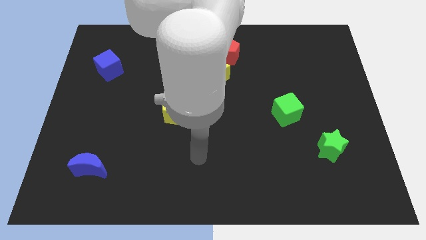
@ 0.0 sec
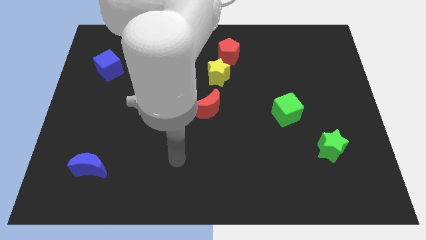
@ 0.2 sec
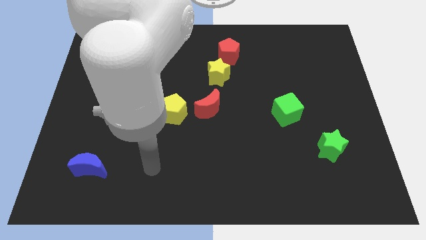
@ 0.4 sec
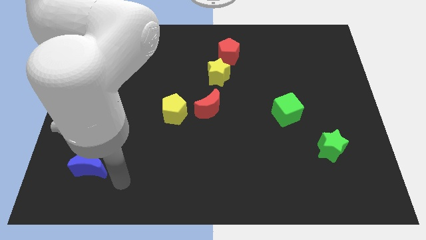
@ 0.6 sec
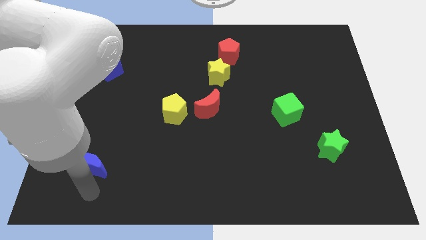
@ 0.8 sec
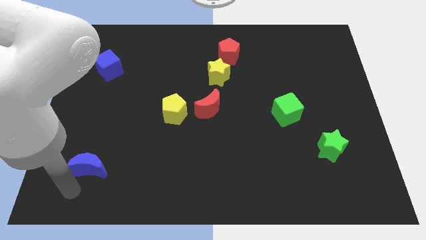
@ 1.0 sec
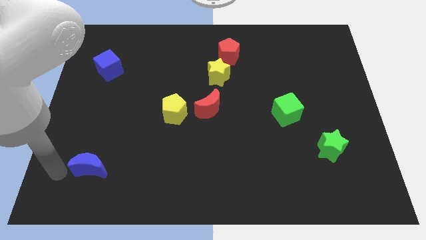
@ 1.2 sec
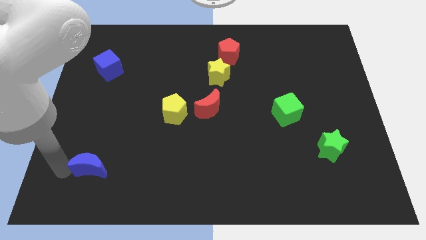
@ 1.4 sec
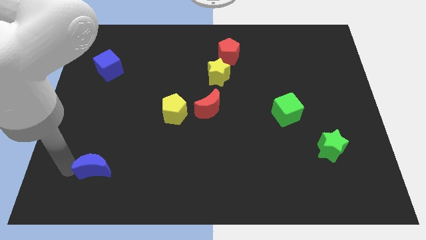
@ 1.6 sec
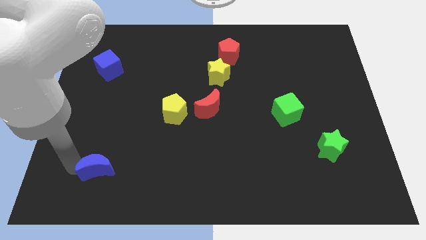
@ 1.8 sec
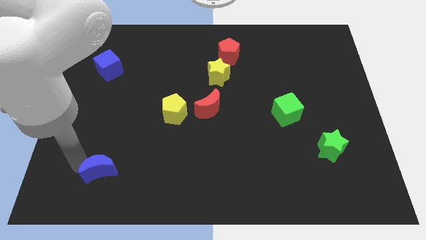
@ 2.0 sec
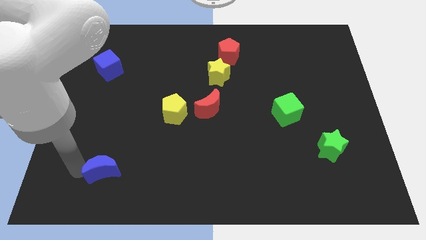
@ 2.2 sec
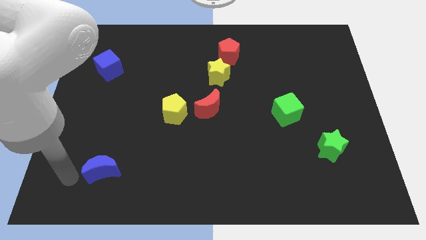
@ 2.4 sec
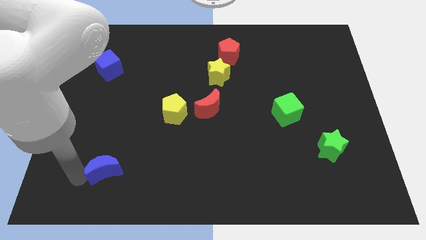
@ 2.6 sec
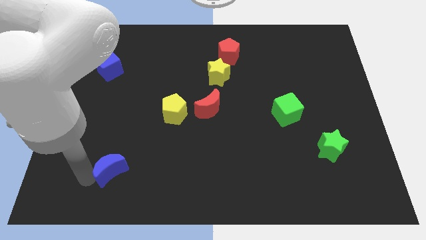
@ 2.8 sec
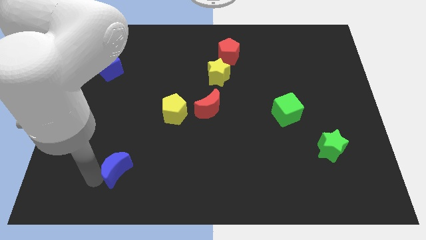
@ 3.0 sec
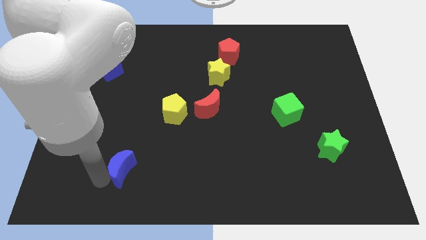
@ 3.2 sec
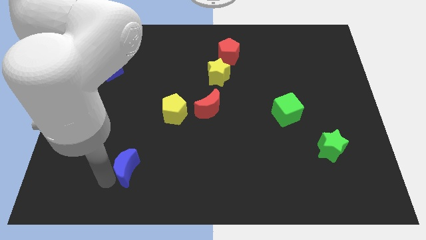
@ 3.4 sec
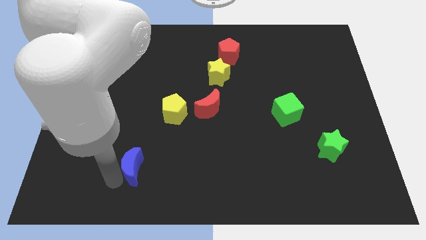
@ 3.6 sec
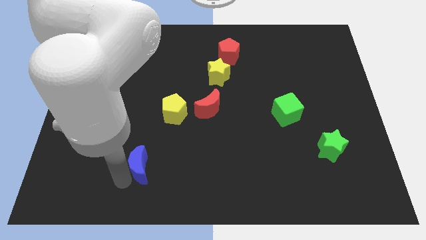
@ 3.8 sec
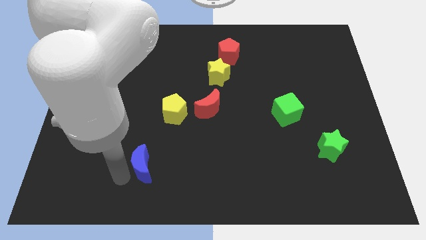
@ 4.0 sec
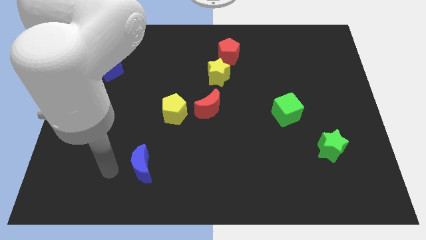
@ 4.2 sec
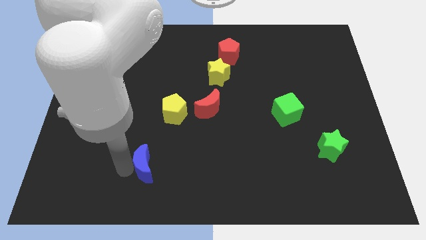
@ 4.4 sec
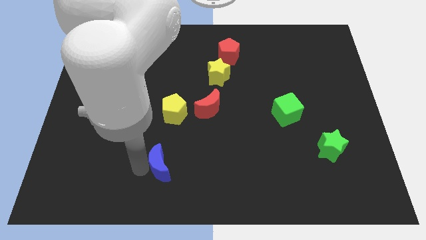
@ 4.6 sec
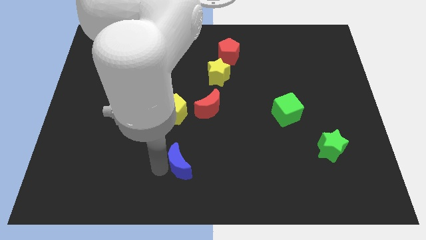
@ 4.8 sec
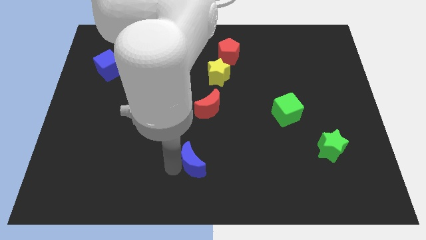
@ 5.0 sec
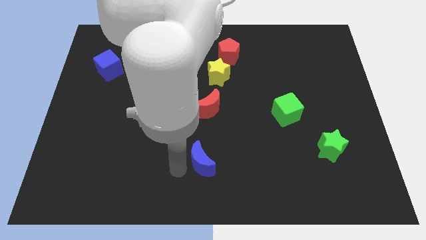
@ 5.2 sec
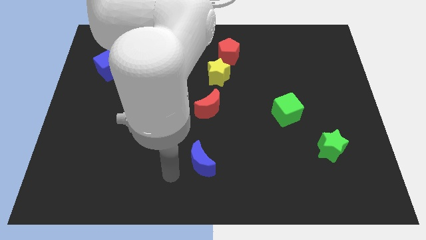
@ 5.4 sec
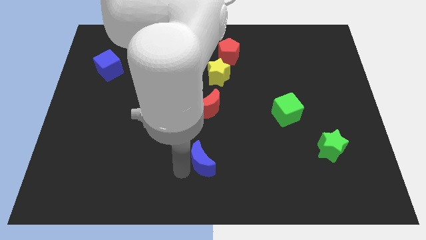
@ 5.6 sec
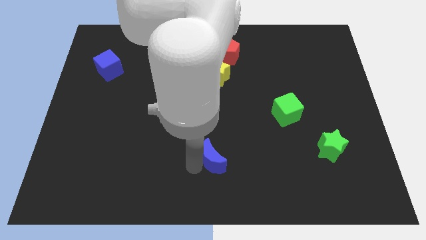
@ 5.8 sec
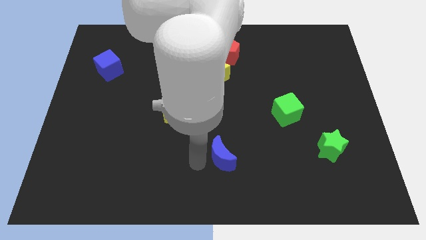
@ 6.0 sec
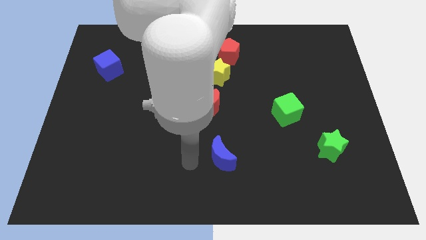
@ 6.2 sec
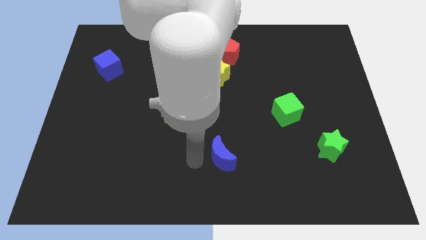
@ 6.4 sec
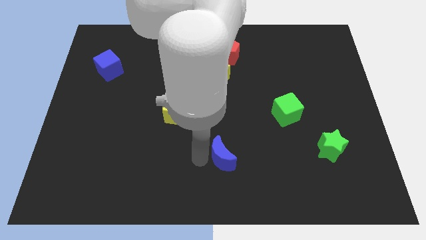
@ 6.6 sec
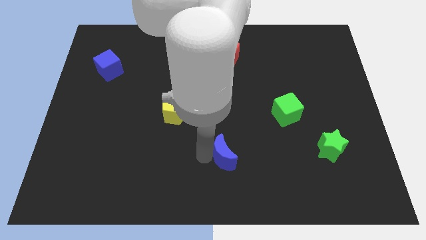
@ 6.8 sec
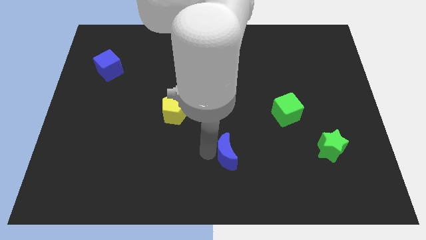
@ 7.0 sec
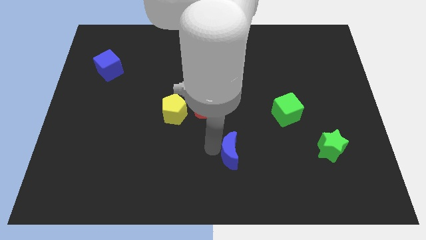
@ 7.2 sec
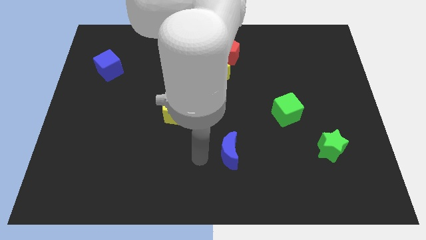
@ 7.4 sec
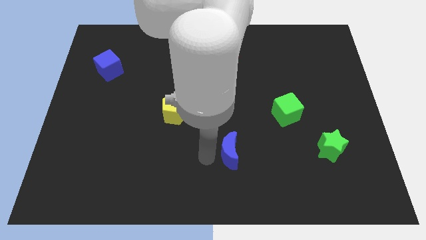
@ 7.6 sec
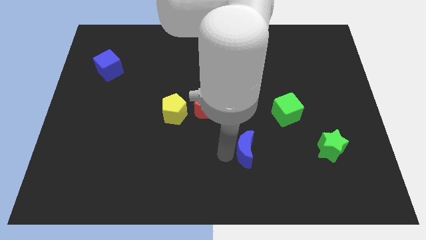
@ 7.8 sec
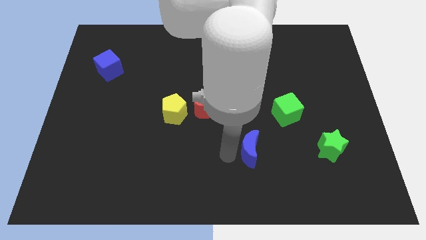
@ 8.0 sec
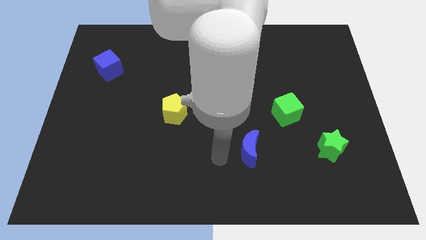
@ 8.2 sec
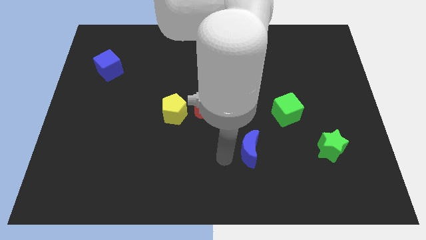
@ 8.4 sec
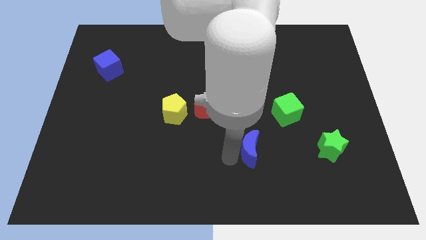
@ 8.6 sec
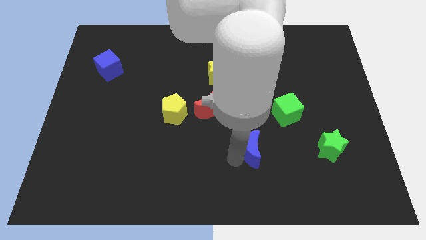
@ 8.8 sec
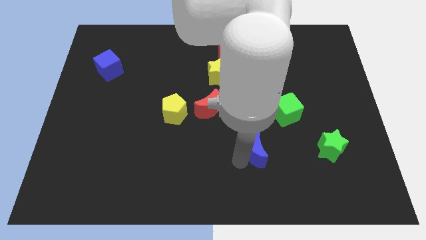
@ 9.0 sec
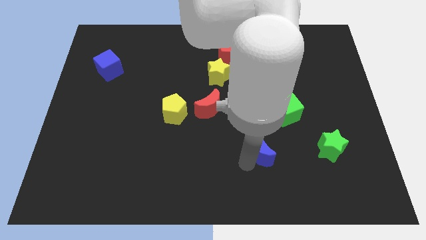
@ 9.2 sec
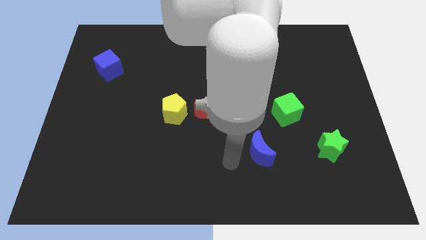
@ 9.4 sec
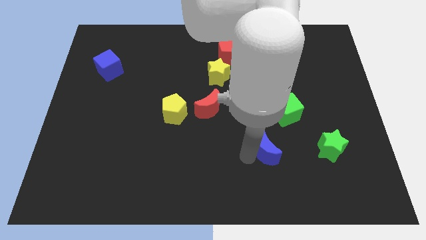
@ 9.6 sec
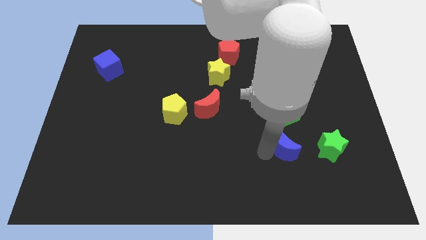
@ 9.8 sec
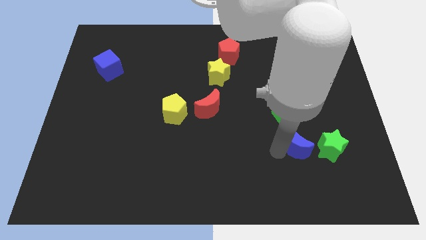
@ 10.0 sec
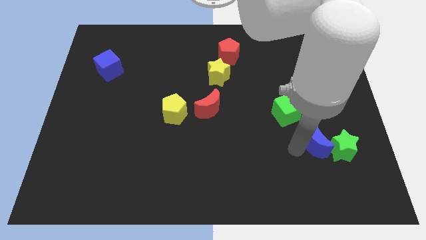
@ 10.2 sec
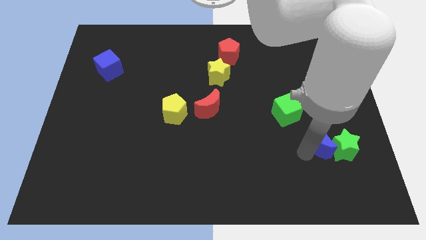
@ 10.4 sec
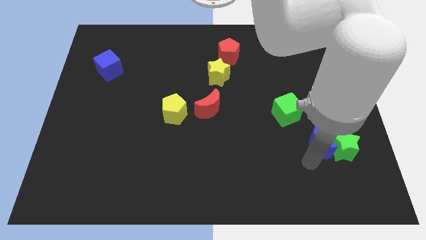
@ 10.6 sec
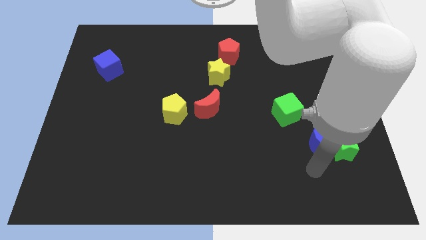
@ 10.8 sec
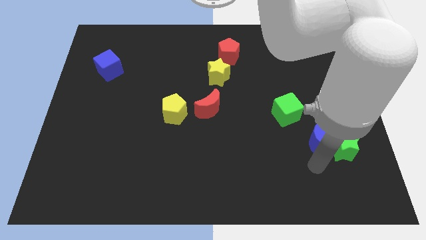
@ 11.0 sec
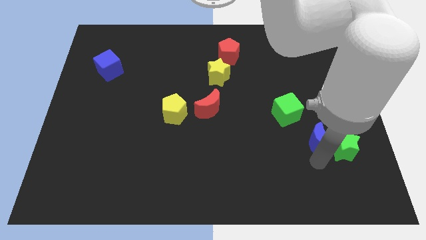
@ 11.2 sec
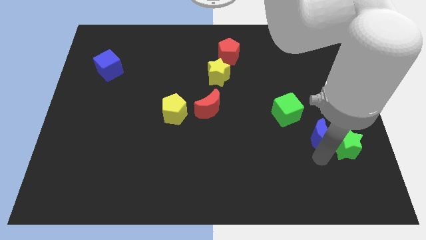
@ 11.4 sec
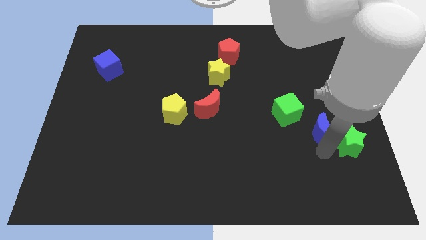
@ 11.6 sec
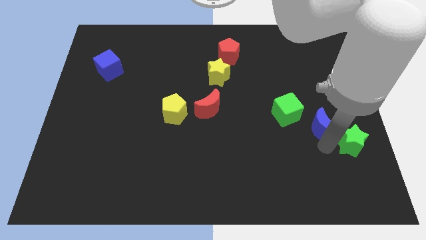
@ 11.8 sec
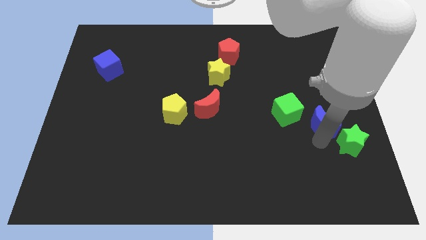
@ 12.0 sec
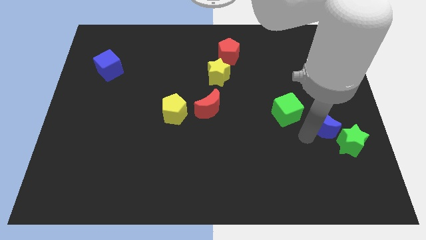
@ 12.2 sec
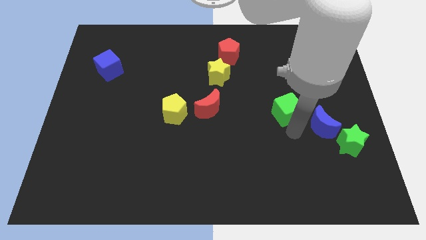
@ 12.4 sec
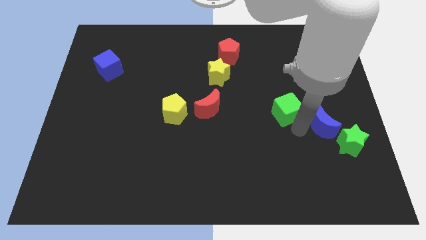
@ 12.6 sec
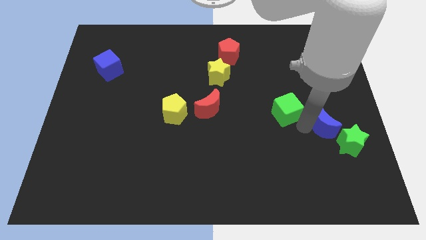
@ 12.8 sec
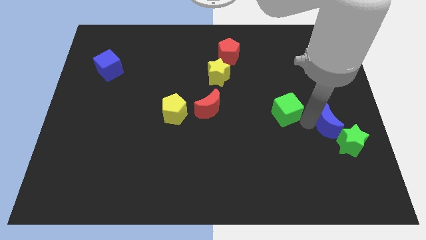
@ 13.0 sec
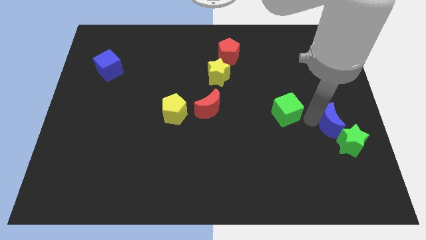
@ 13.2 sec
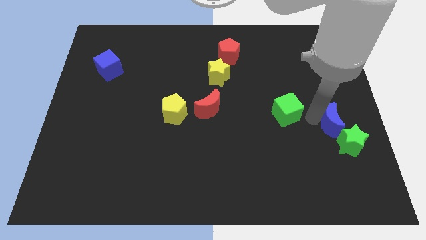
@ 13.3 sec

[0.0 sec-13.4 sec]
push the blue moon to the center right
